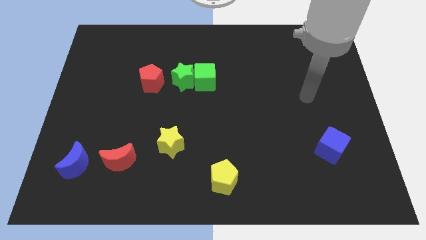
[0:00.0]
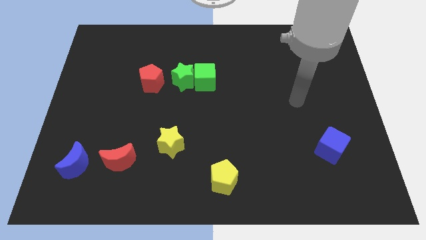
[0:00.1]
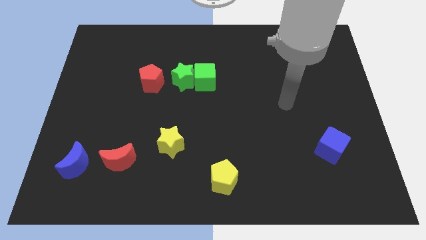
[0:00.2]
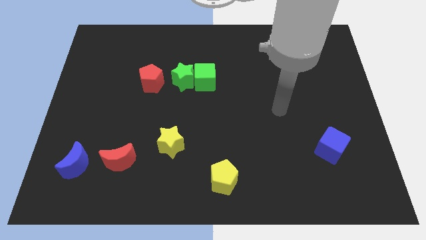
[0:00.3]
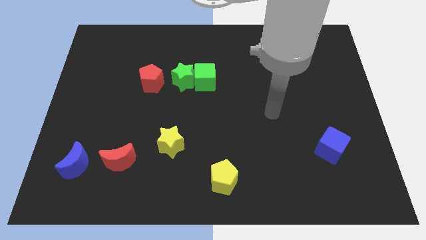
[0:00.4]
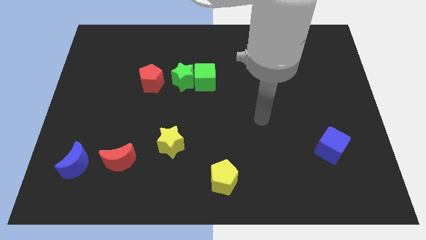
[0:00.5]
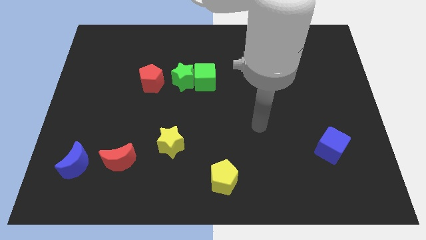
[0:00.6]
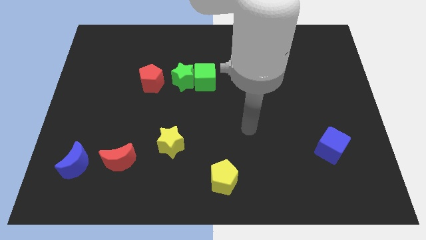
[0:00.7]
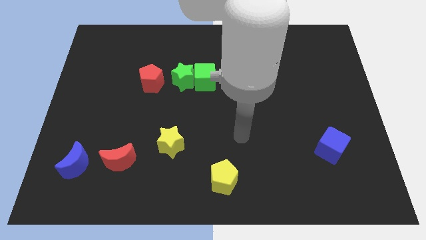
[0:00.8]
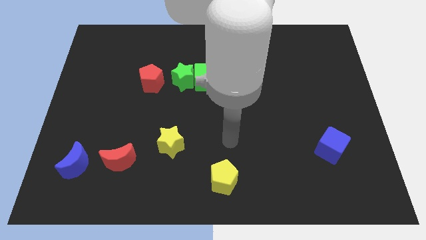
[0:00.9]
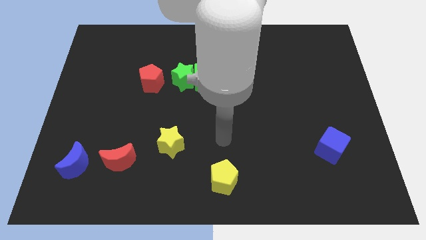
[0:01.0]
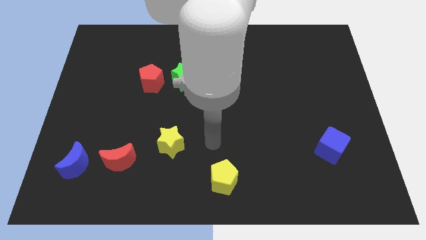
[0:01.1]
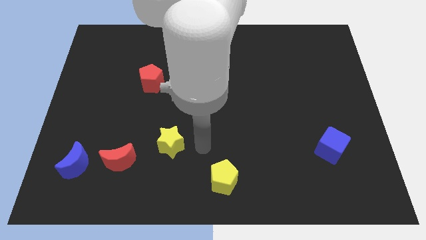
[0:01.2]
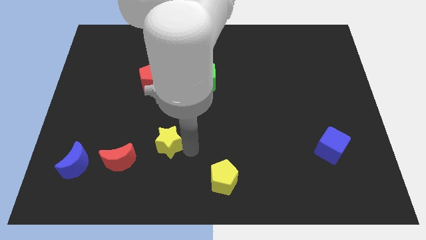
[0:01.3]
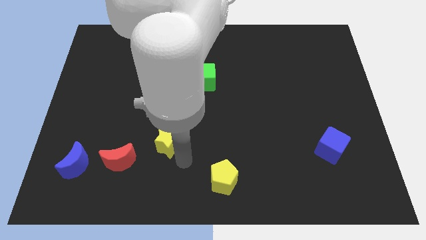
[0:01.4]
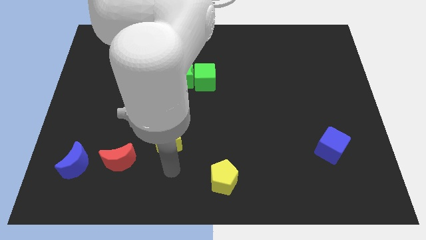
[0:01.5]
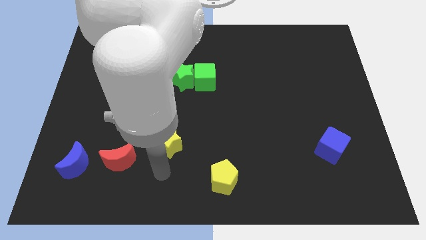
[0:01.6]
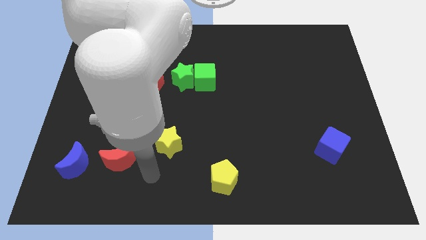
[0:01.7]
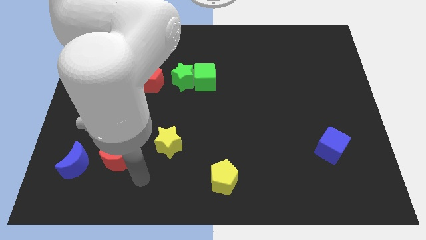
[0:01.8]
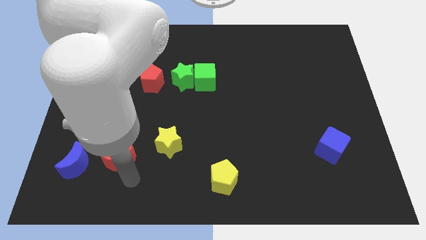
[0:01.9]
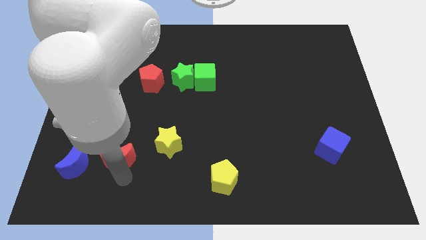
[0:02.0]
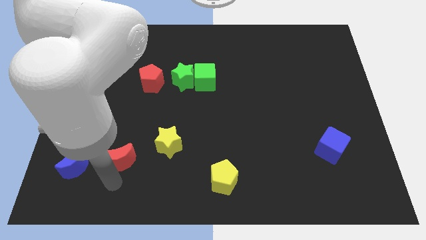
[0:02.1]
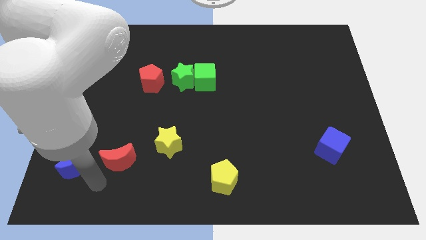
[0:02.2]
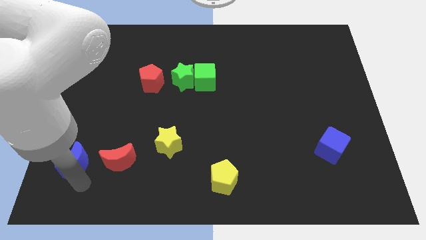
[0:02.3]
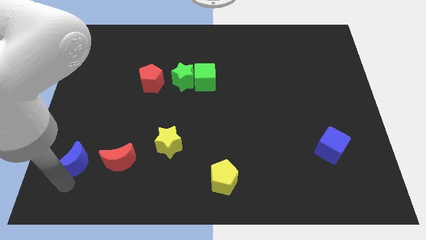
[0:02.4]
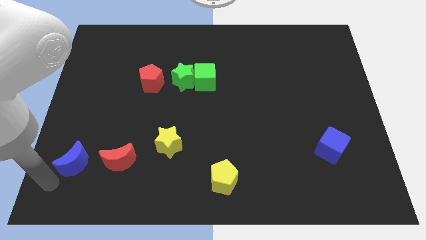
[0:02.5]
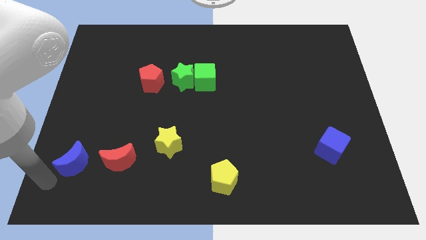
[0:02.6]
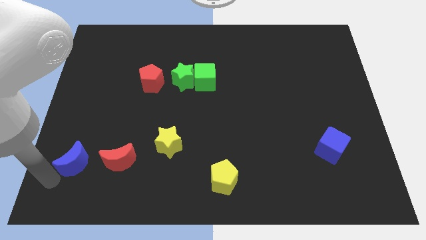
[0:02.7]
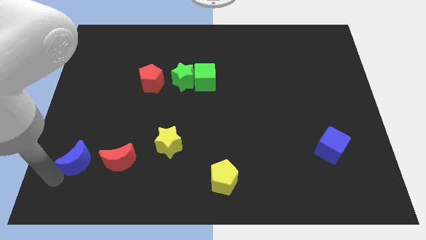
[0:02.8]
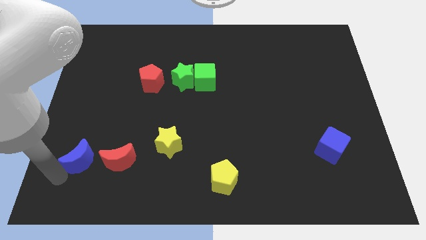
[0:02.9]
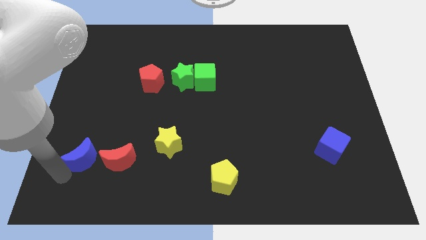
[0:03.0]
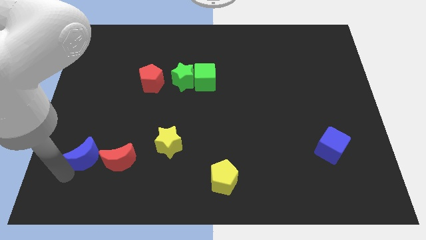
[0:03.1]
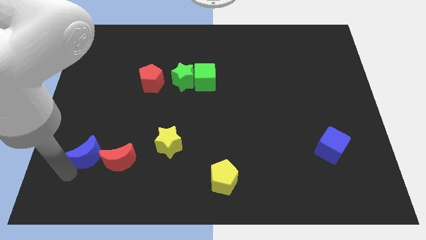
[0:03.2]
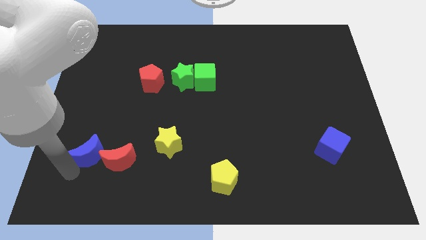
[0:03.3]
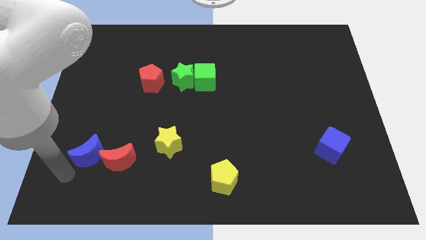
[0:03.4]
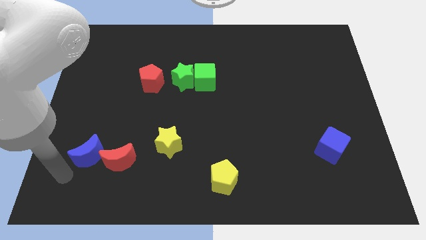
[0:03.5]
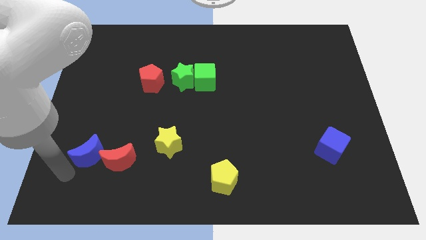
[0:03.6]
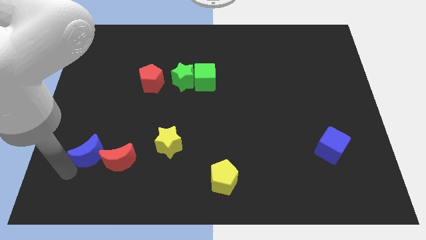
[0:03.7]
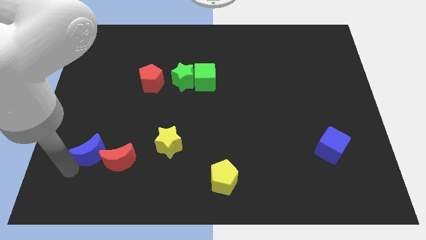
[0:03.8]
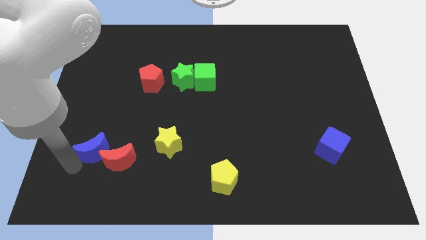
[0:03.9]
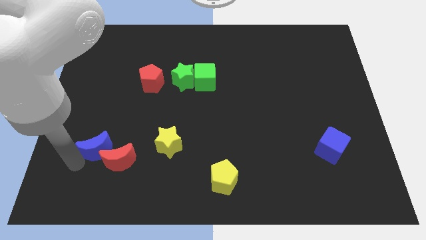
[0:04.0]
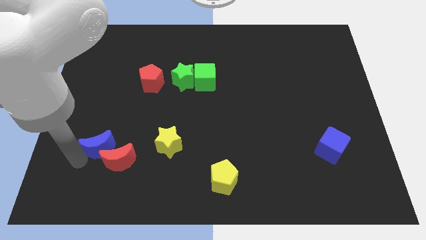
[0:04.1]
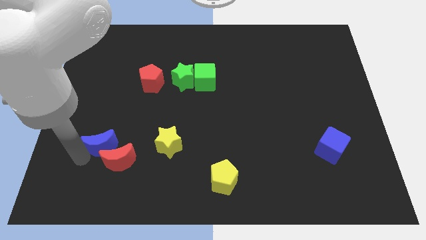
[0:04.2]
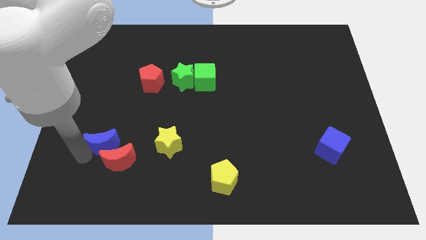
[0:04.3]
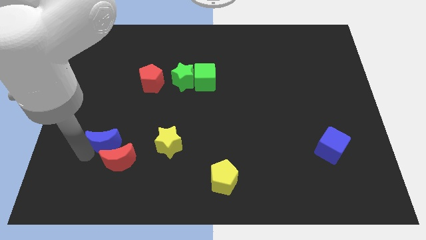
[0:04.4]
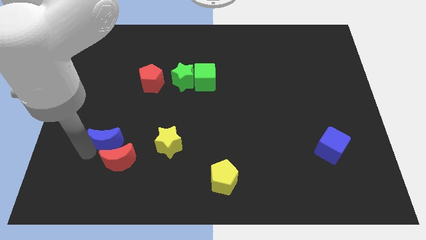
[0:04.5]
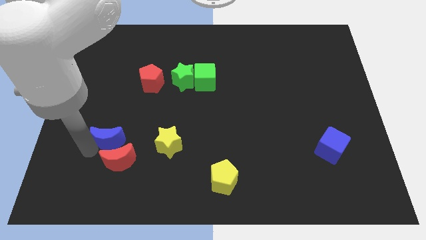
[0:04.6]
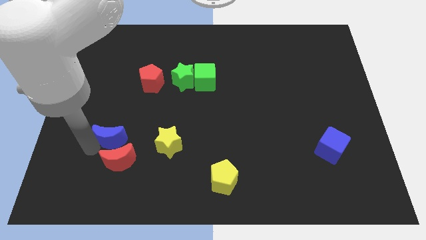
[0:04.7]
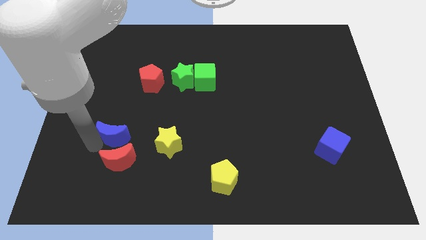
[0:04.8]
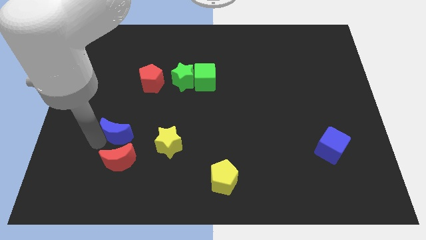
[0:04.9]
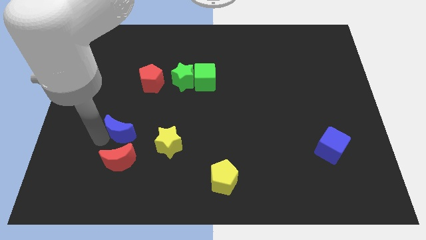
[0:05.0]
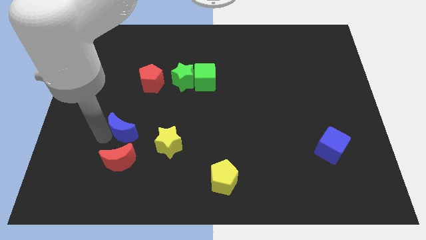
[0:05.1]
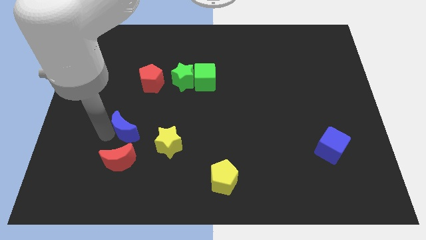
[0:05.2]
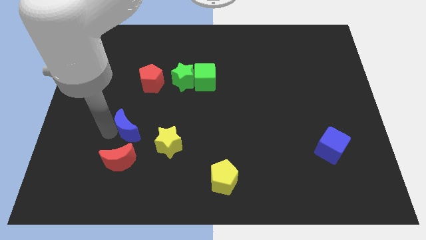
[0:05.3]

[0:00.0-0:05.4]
slide the blue moon to the bottom side of the red pentagon

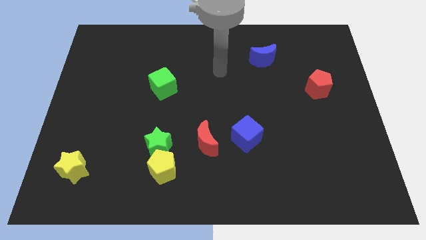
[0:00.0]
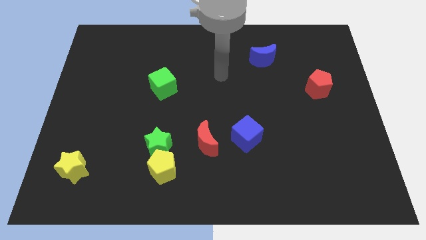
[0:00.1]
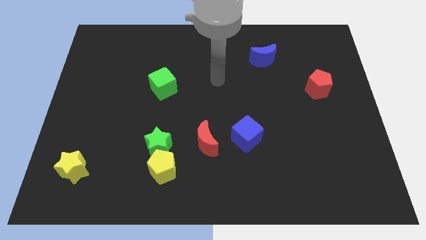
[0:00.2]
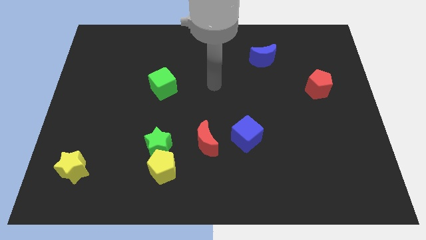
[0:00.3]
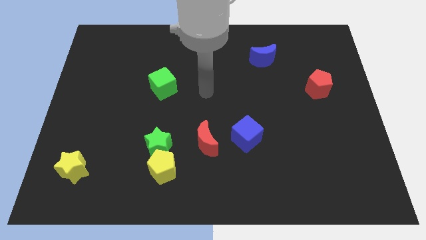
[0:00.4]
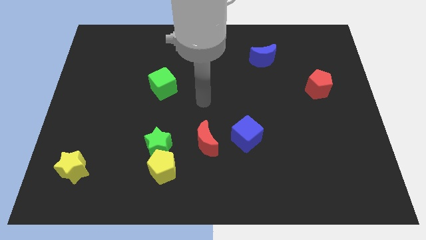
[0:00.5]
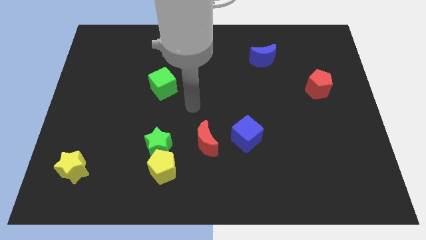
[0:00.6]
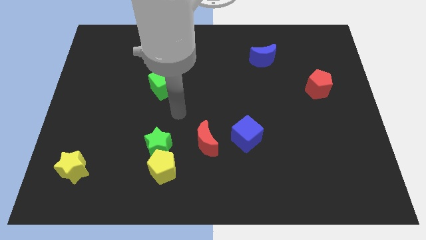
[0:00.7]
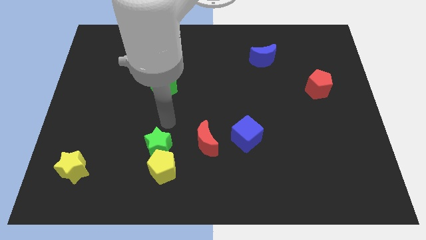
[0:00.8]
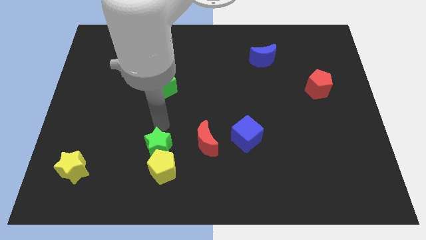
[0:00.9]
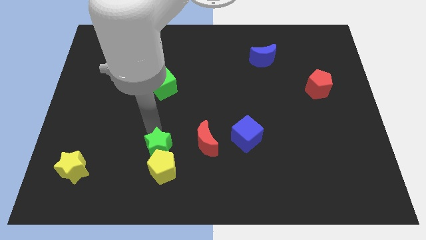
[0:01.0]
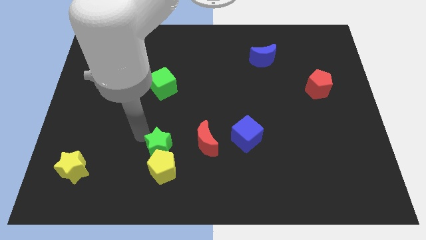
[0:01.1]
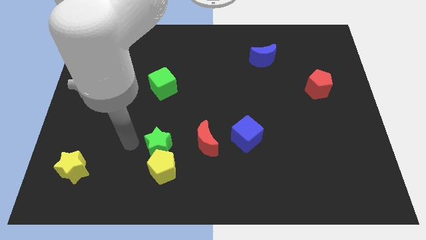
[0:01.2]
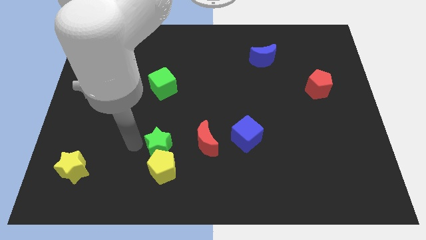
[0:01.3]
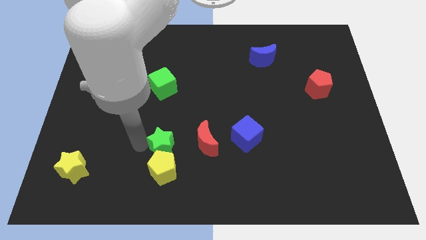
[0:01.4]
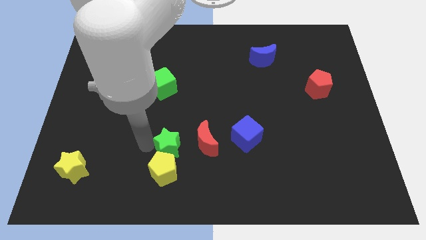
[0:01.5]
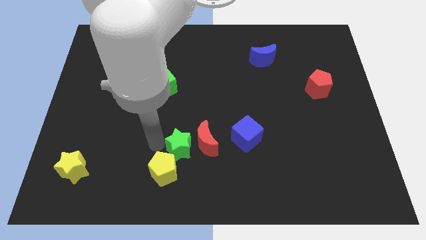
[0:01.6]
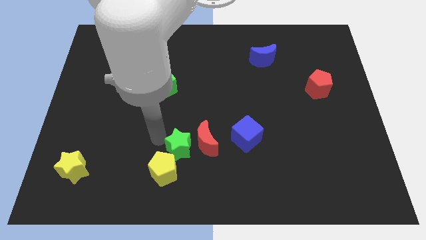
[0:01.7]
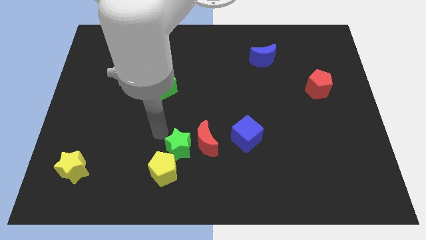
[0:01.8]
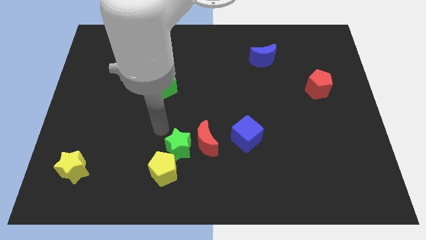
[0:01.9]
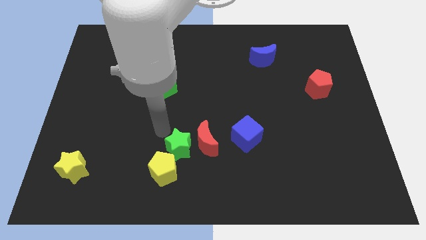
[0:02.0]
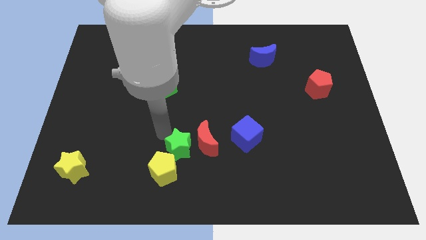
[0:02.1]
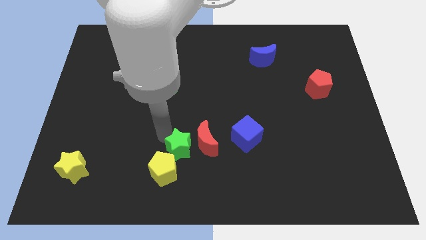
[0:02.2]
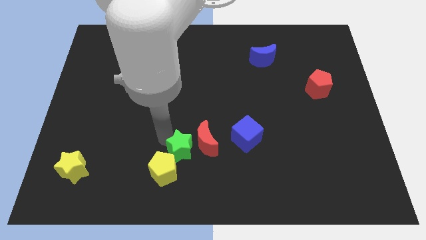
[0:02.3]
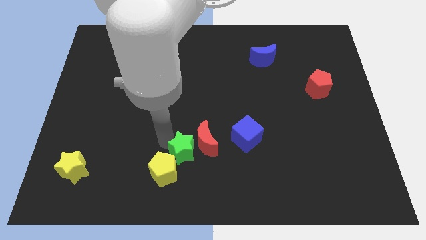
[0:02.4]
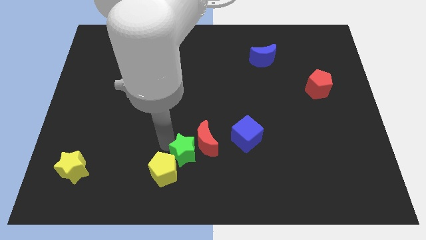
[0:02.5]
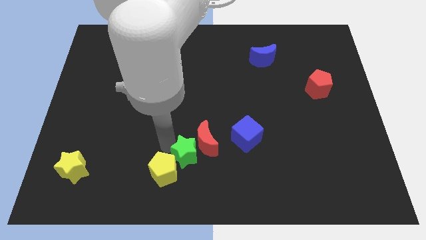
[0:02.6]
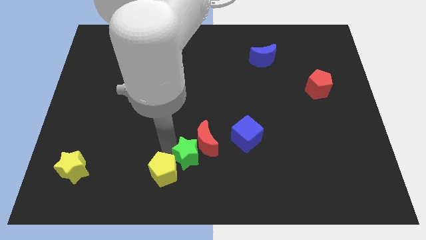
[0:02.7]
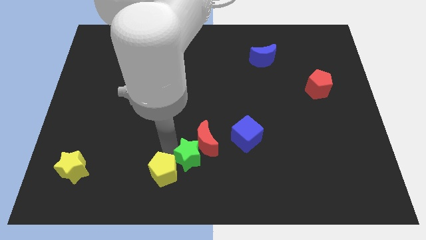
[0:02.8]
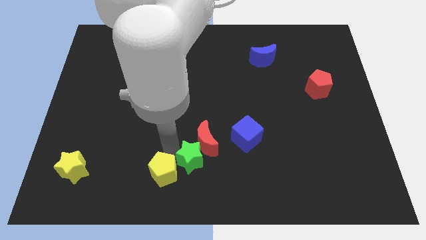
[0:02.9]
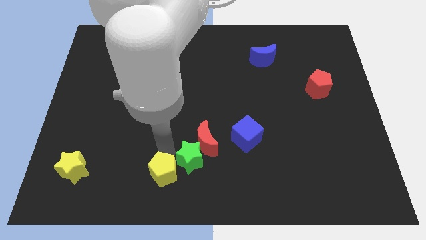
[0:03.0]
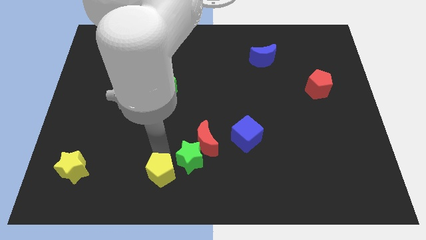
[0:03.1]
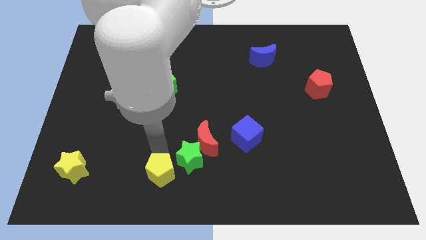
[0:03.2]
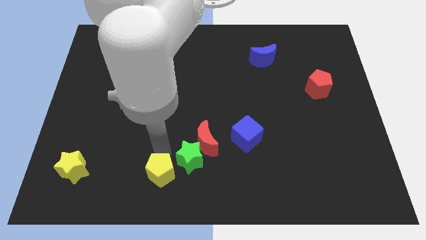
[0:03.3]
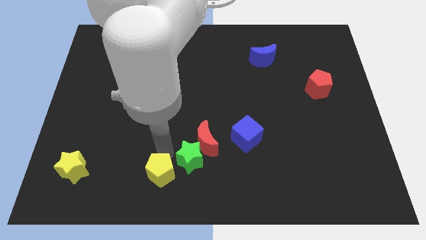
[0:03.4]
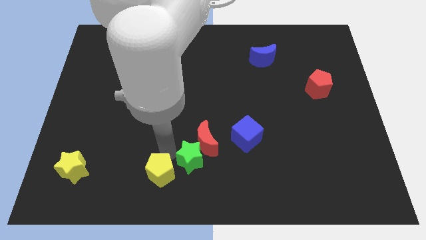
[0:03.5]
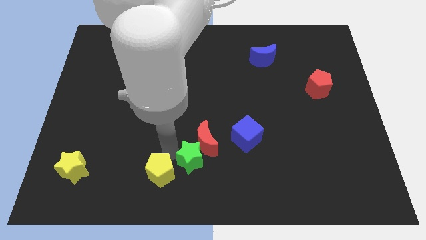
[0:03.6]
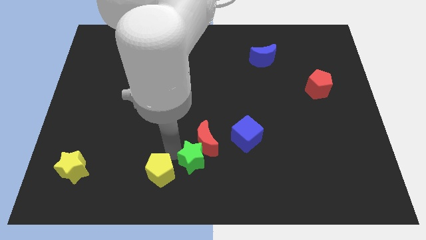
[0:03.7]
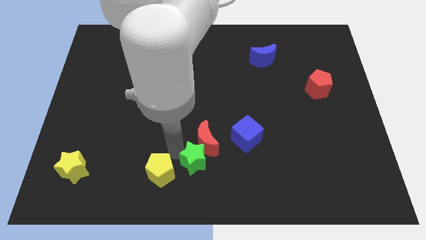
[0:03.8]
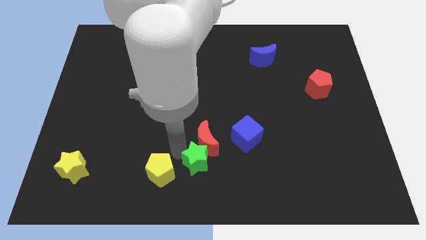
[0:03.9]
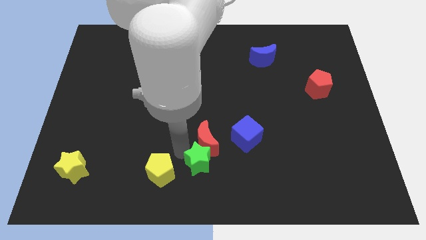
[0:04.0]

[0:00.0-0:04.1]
slide the green star to the bottom right of the red moon
